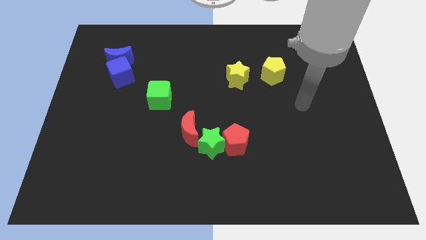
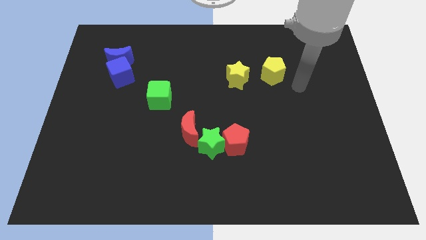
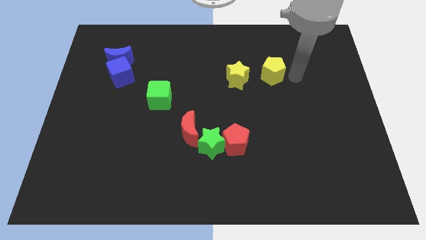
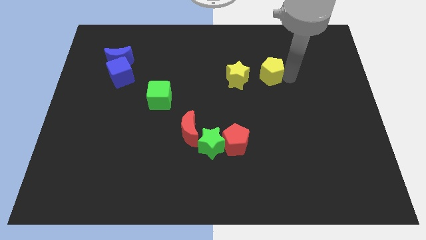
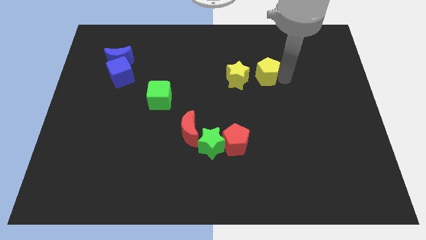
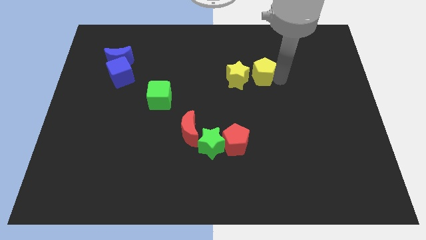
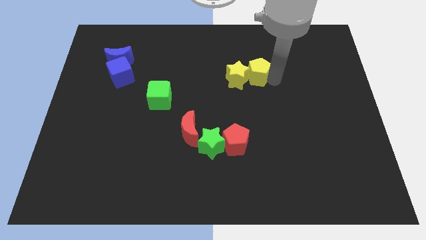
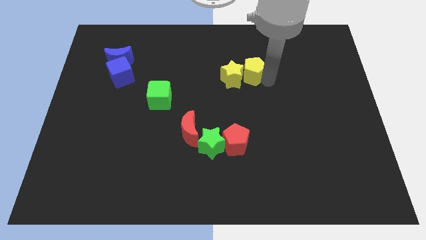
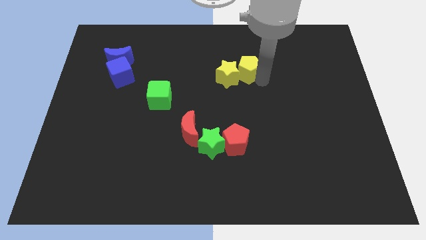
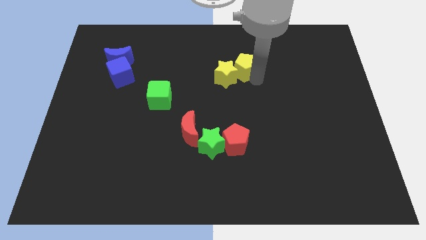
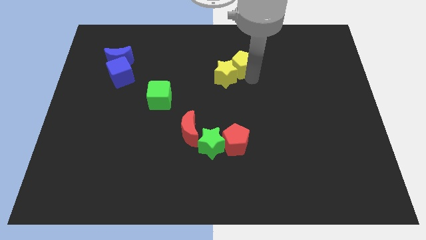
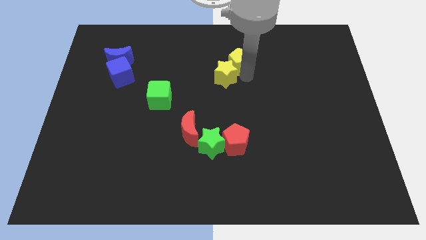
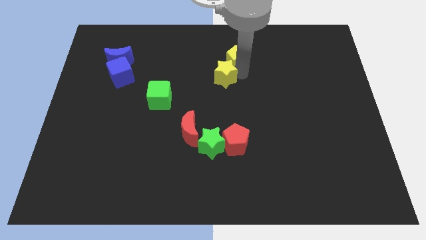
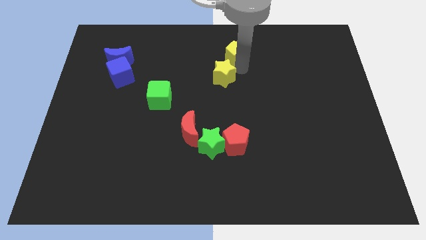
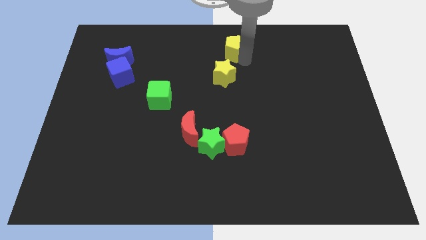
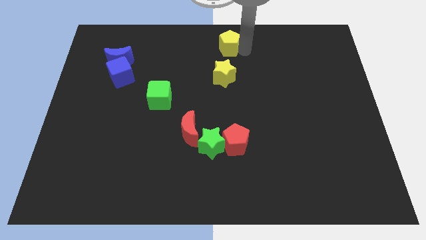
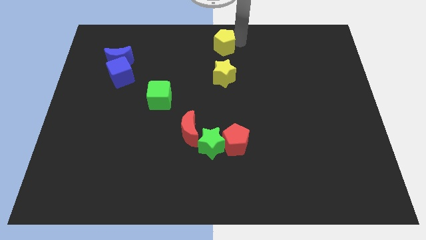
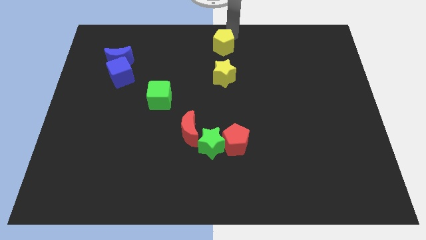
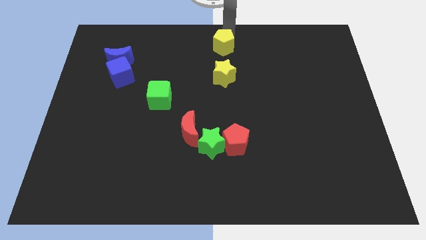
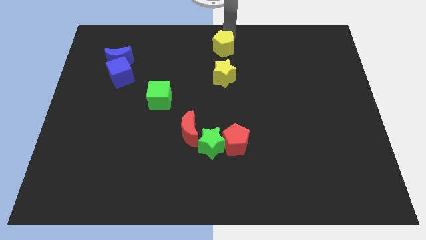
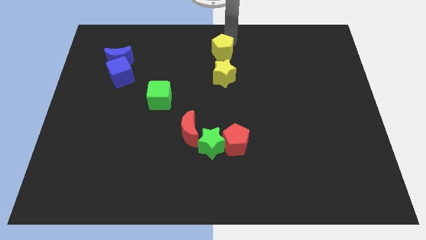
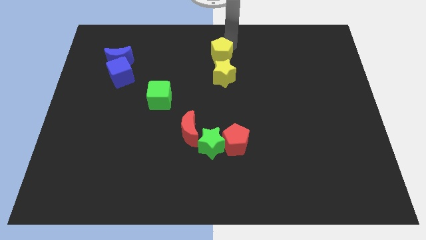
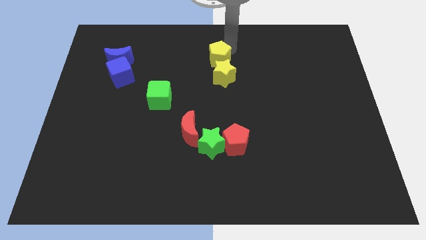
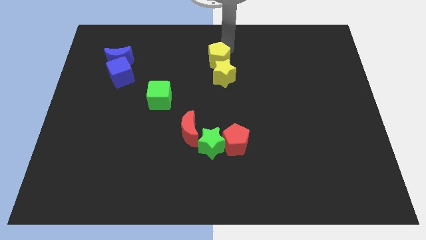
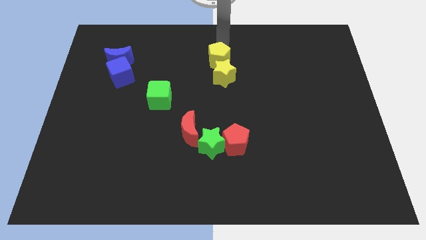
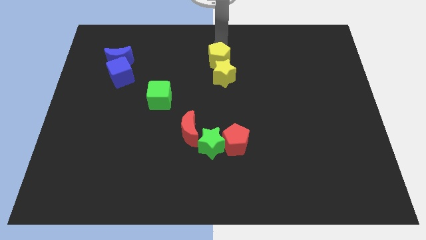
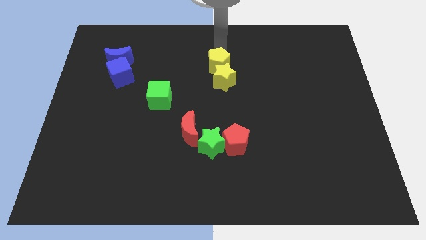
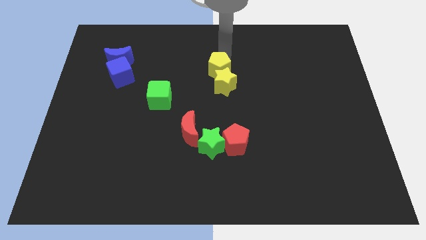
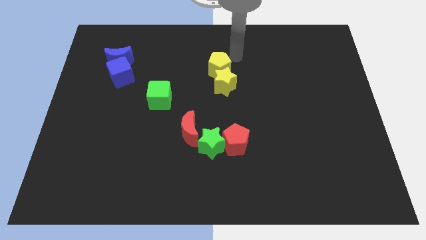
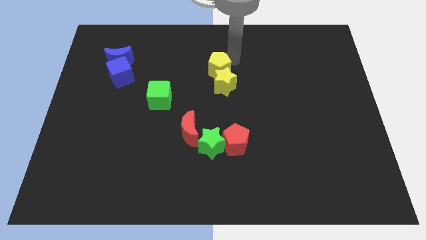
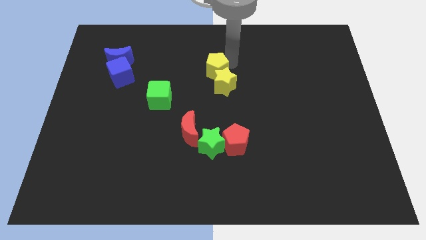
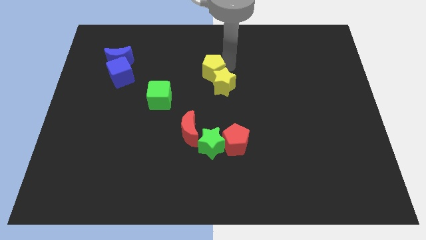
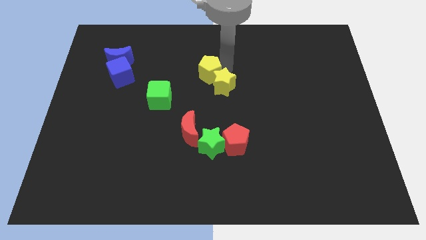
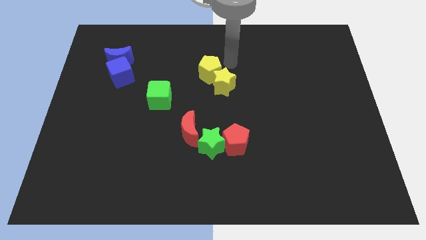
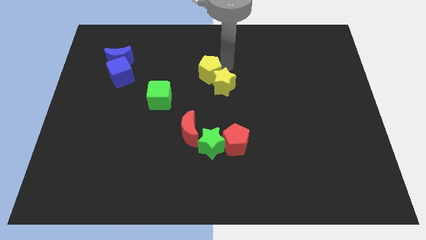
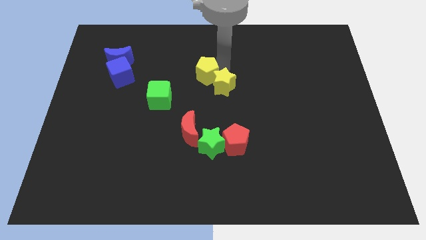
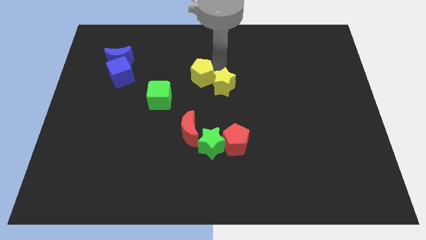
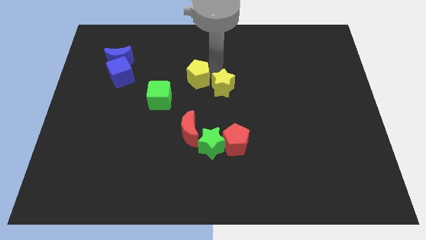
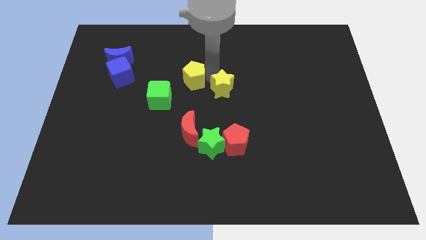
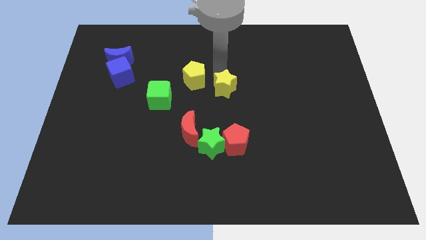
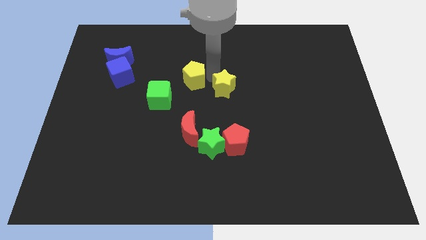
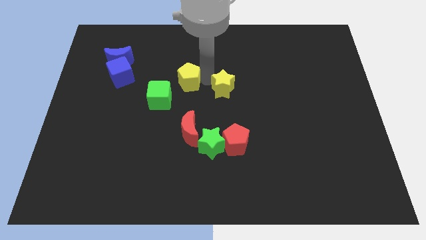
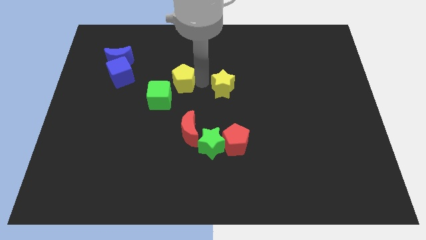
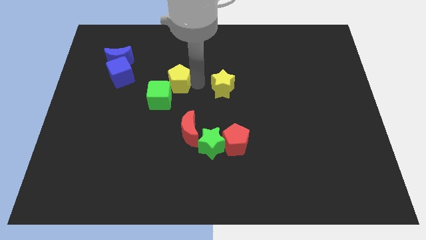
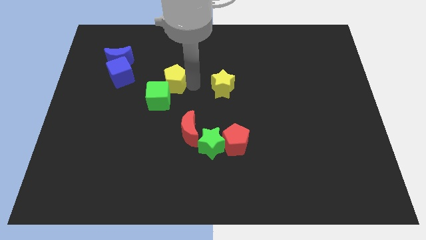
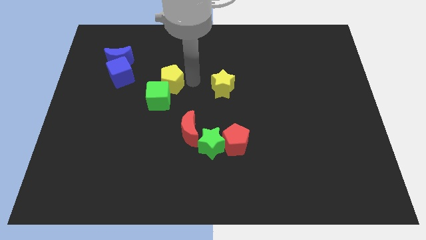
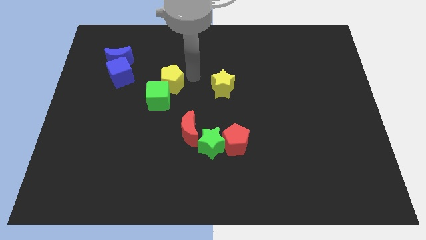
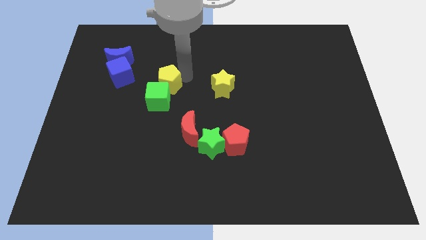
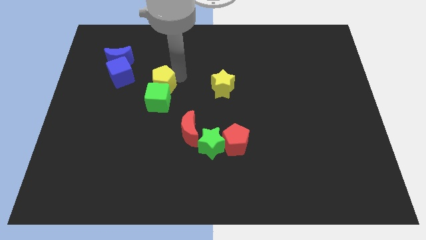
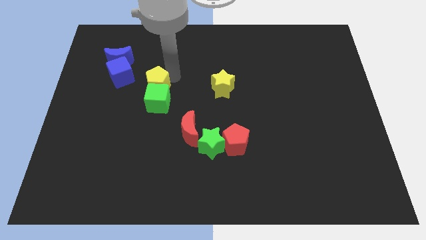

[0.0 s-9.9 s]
slide the yellow pentagon diagonally down and to the right of the blue cube

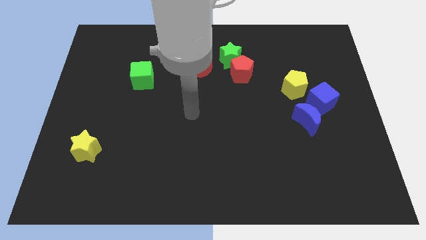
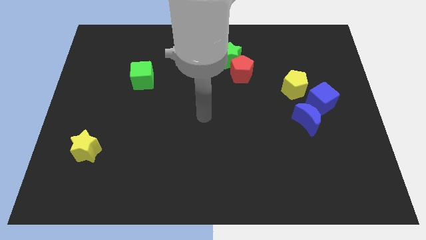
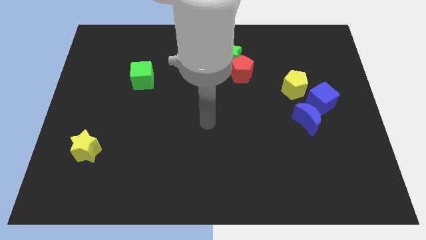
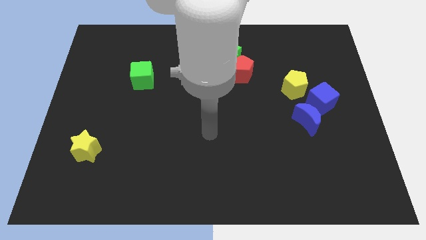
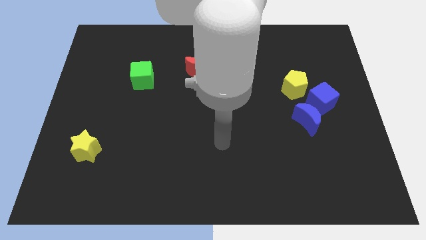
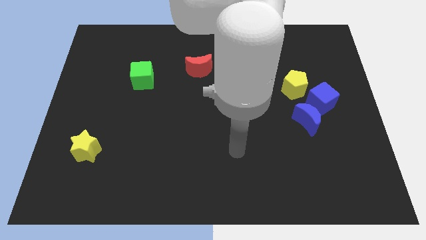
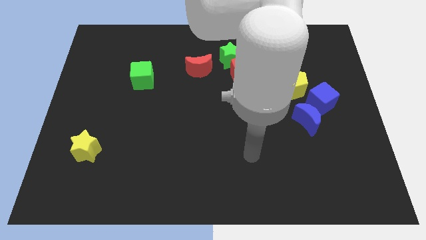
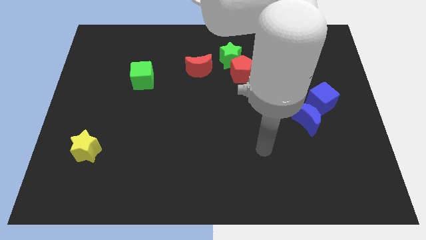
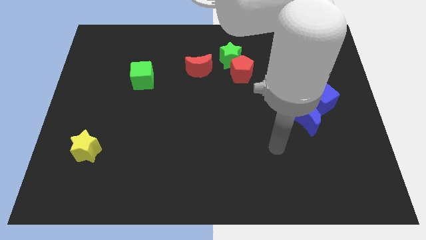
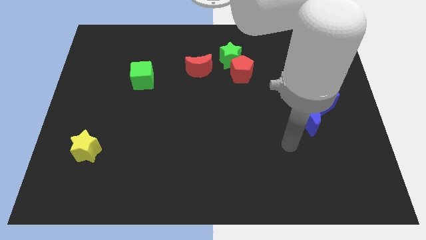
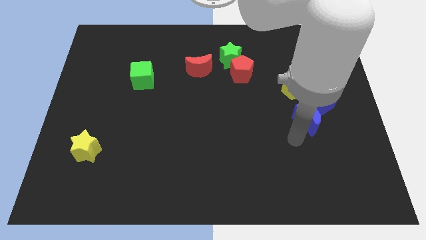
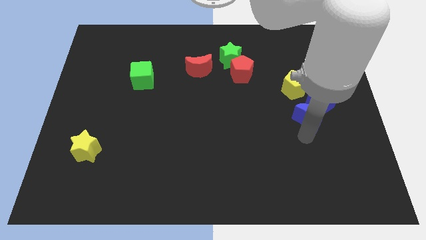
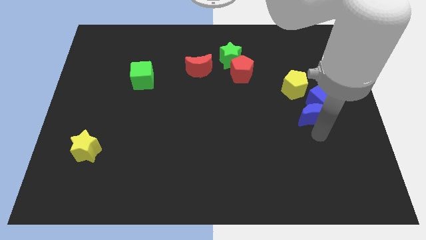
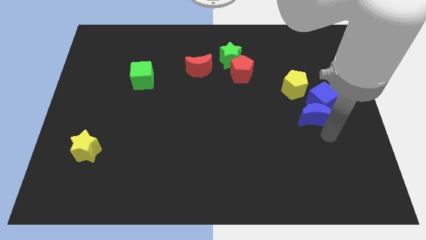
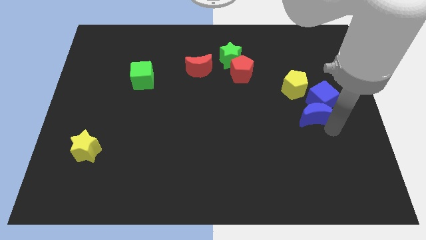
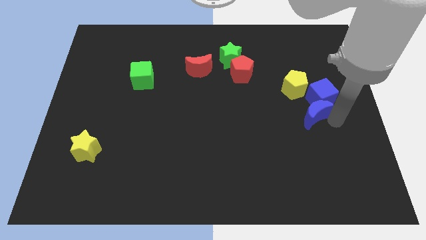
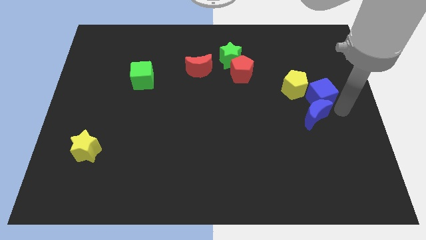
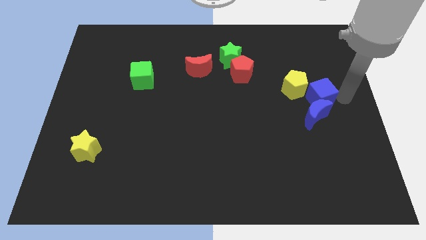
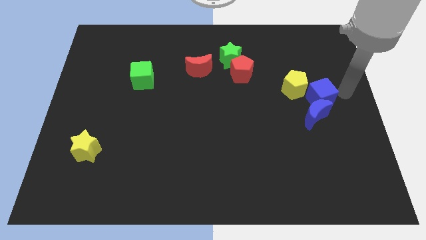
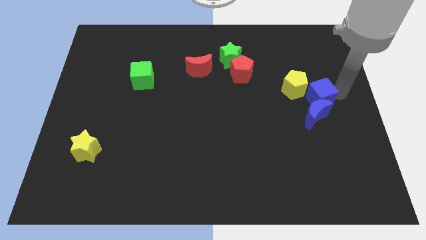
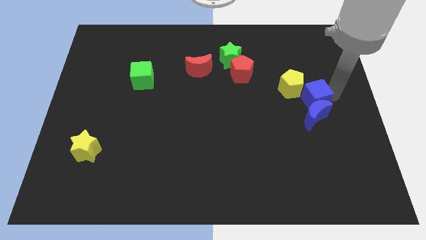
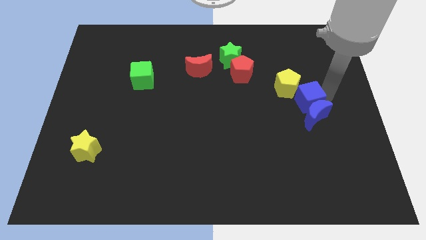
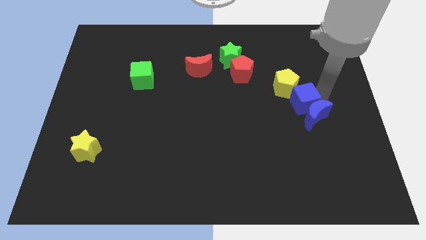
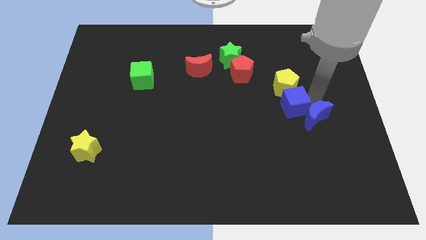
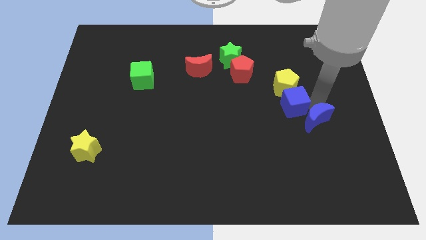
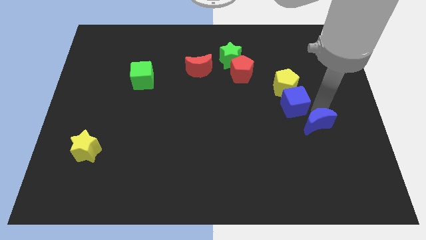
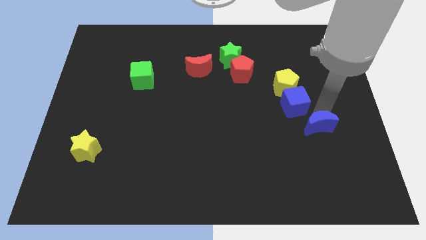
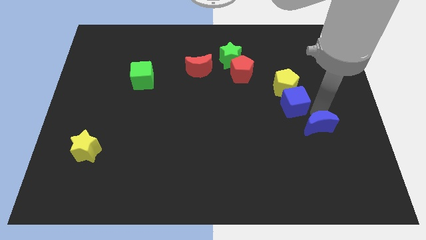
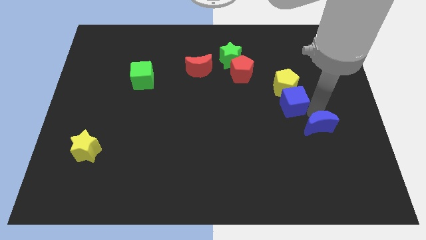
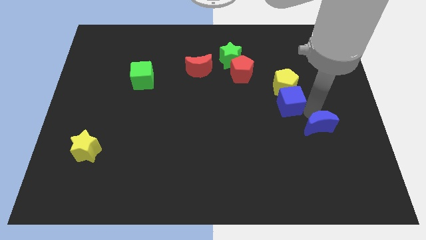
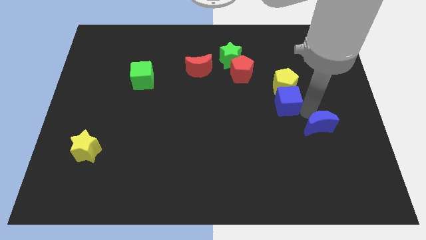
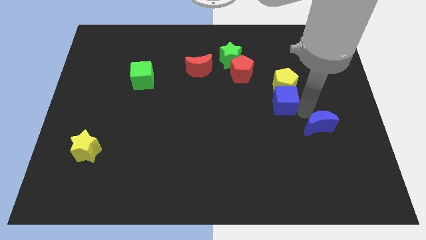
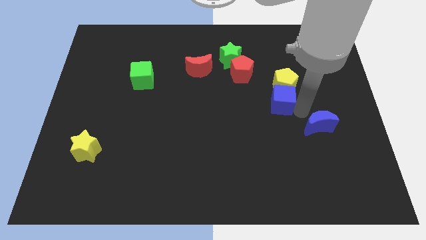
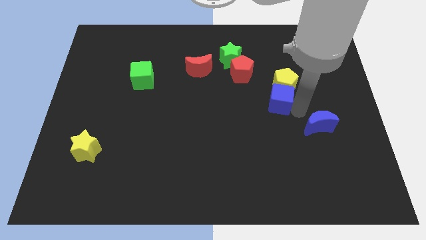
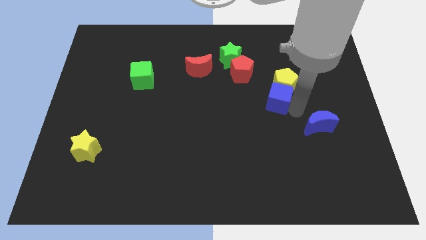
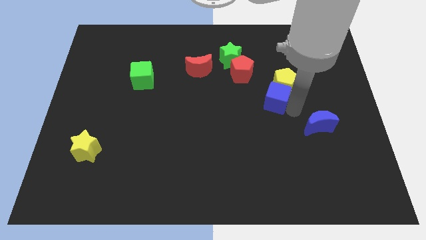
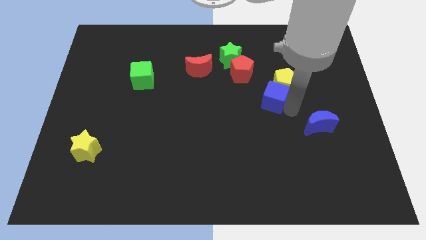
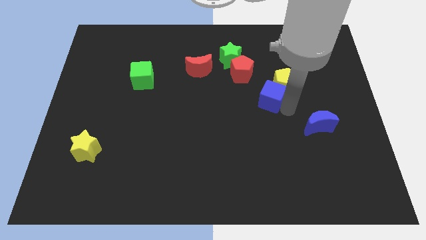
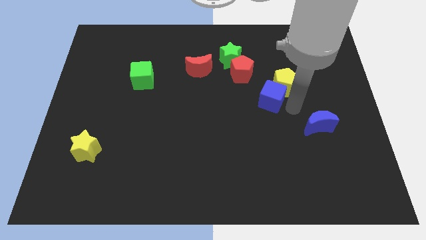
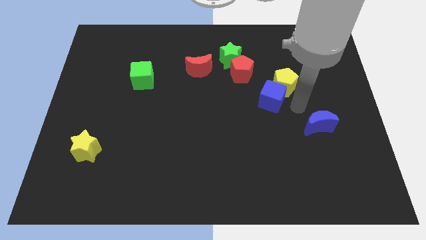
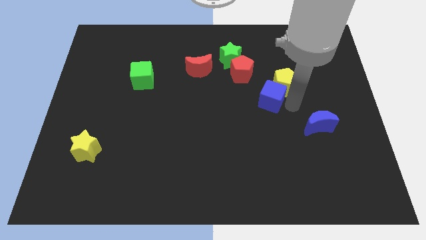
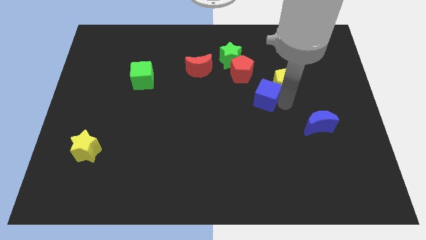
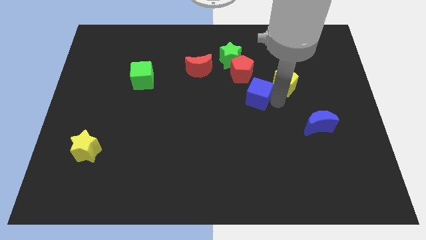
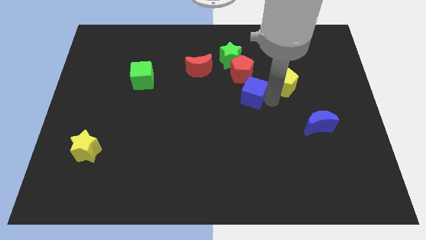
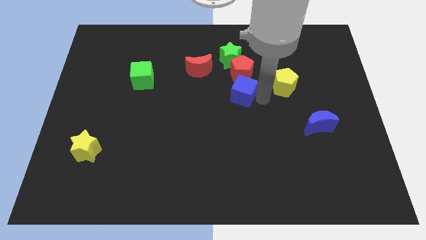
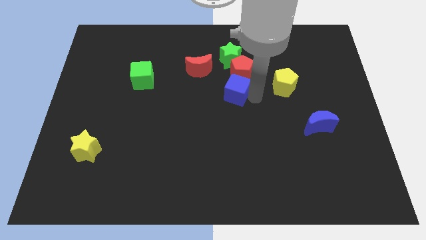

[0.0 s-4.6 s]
put the blue cube to the bottom right side of the red moon
